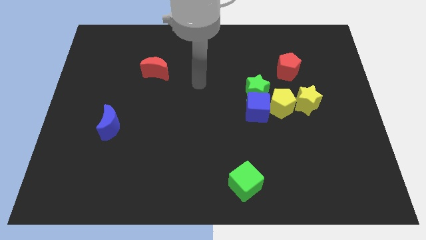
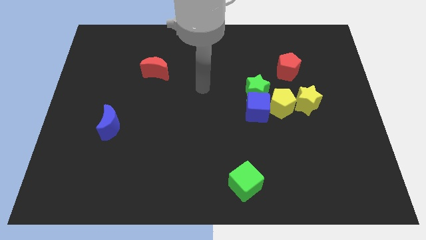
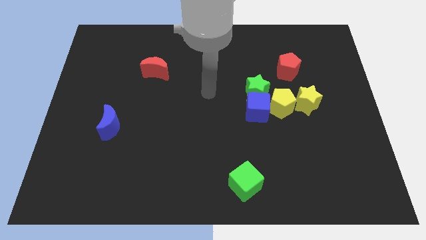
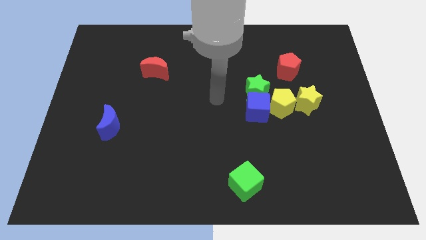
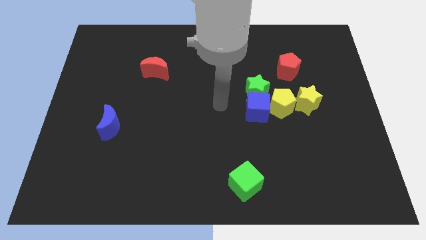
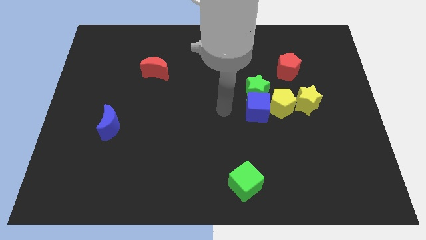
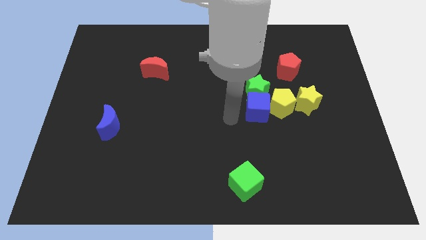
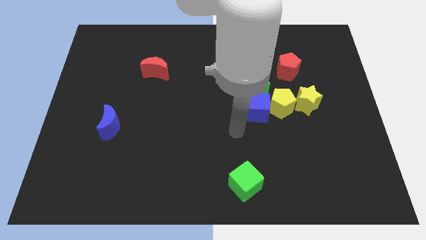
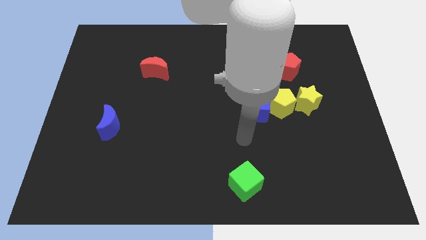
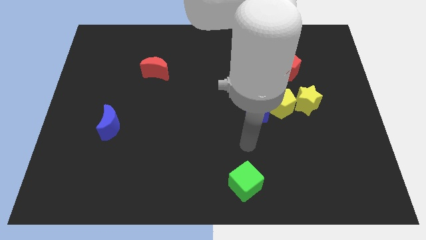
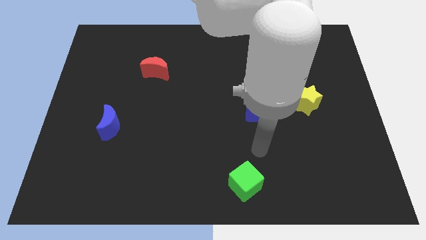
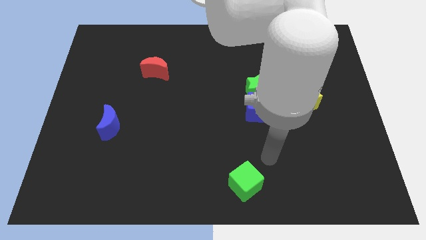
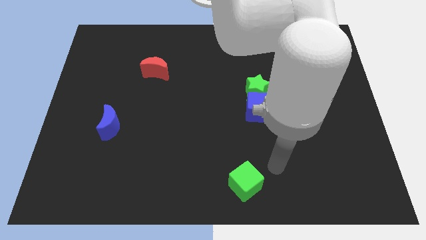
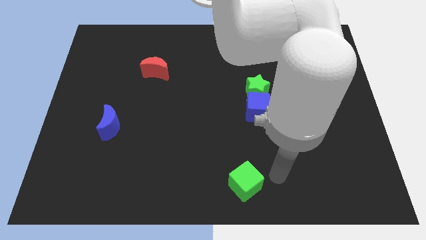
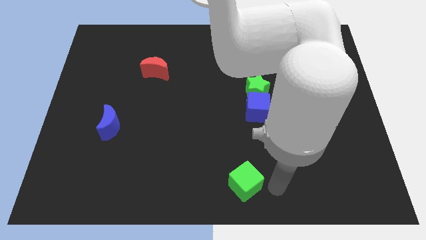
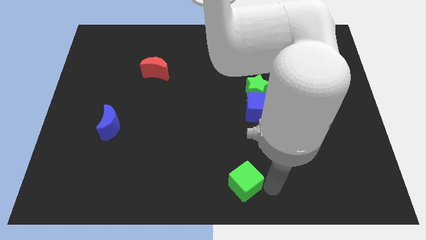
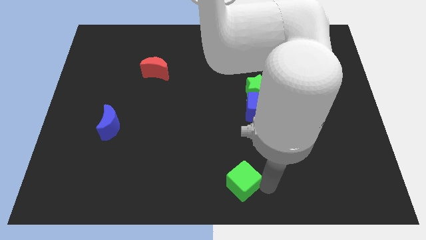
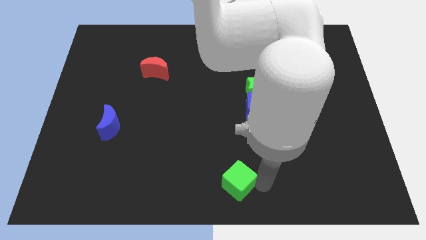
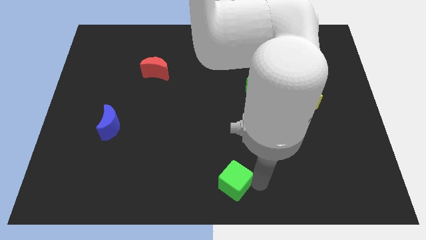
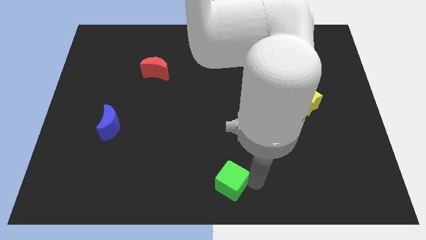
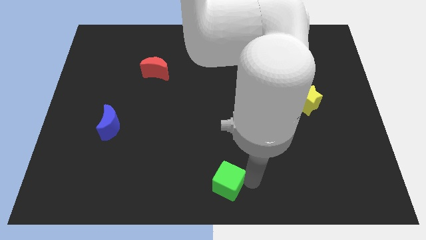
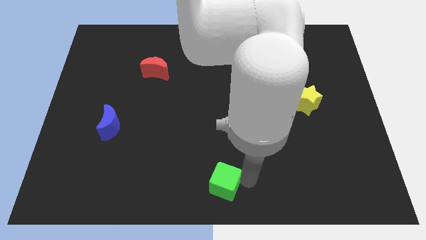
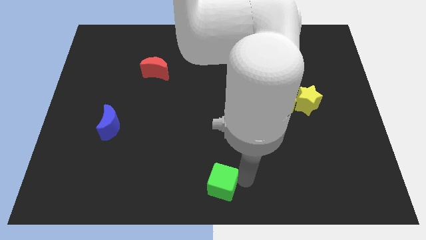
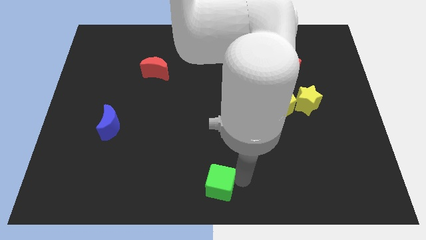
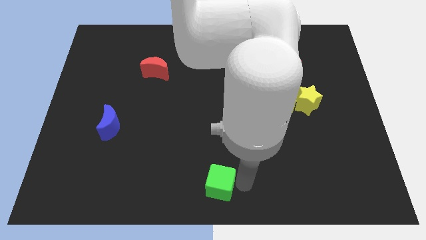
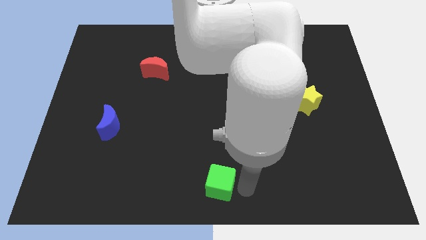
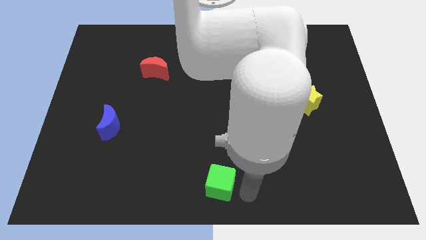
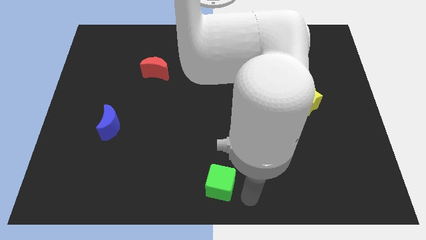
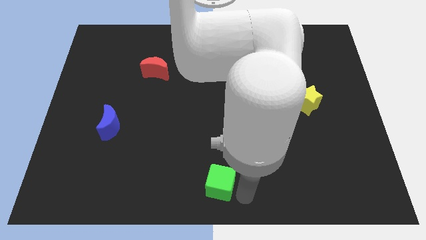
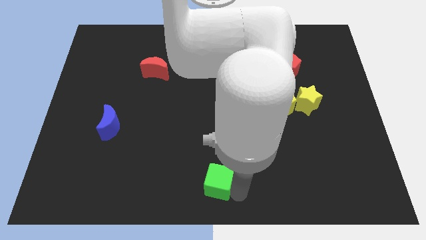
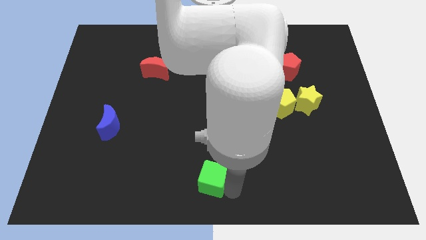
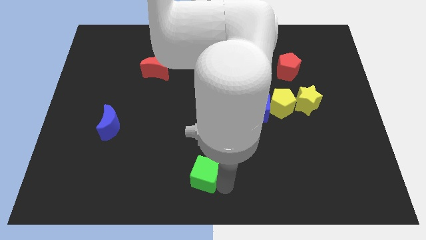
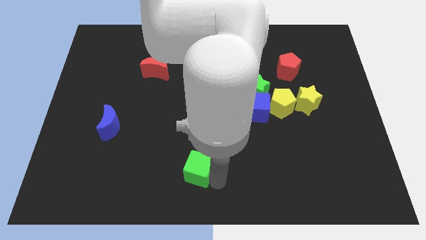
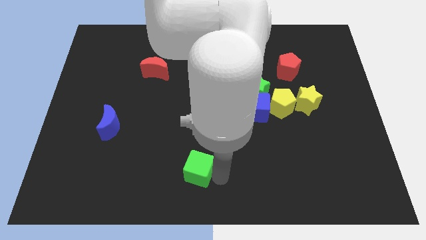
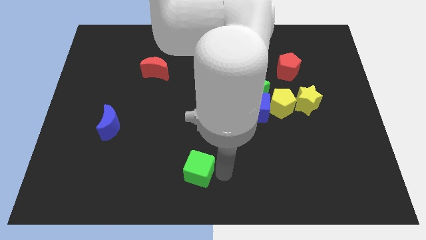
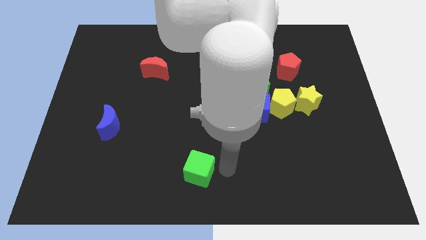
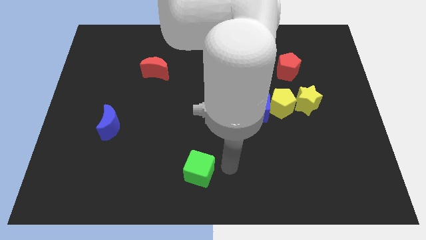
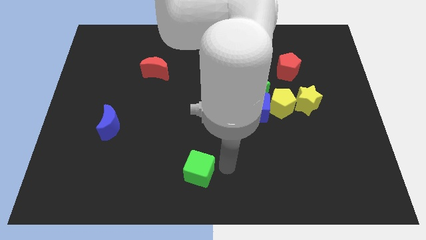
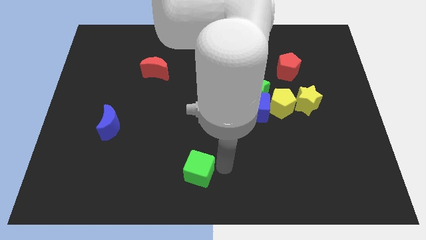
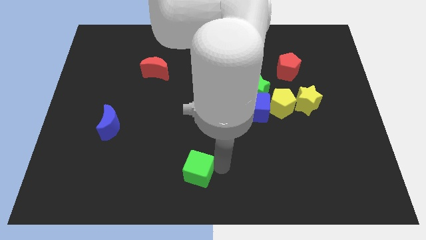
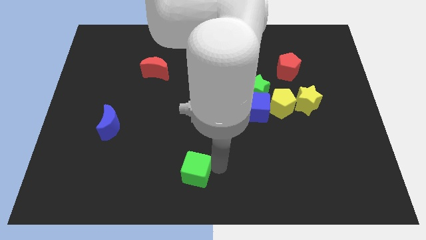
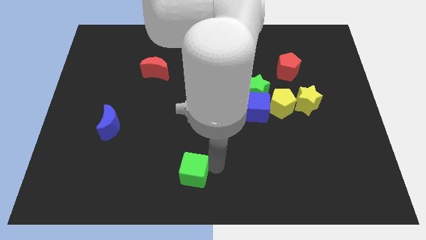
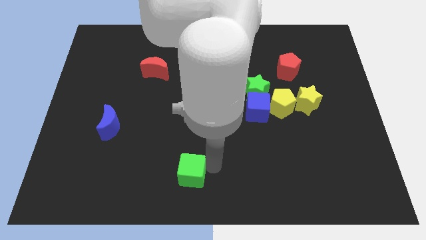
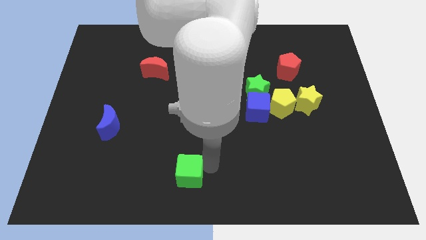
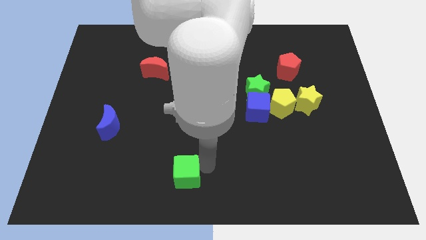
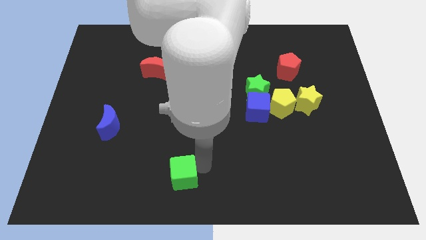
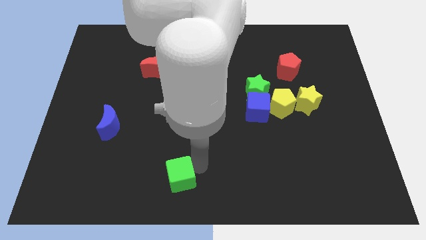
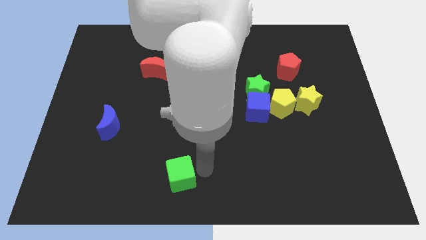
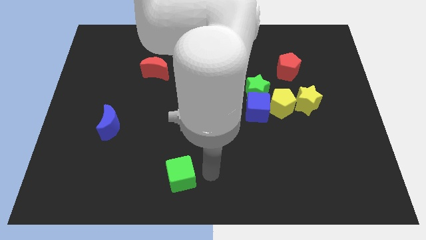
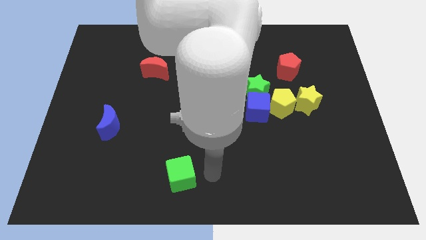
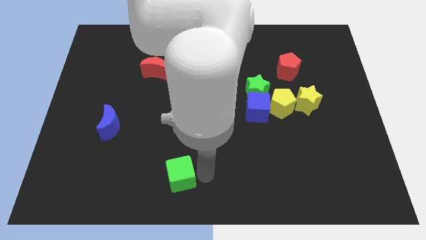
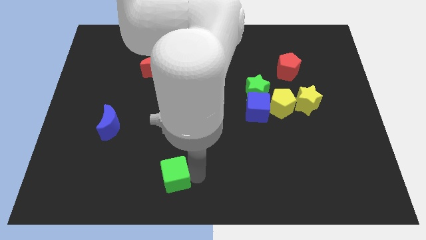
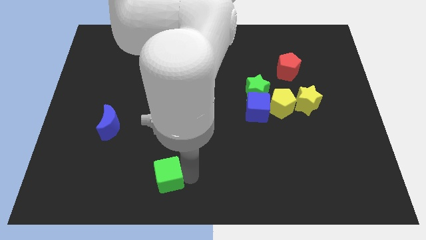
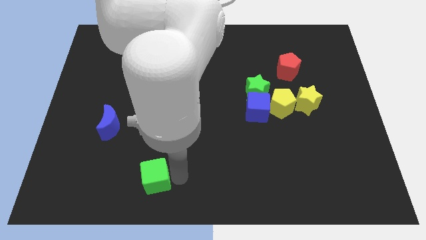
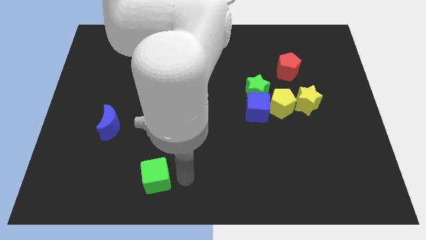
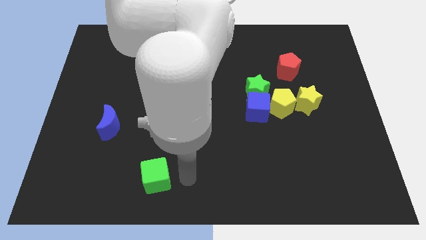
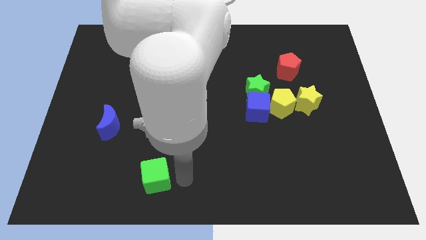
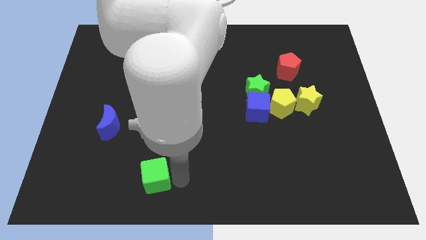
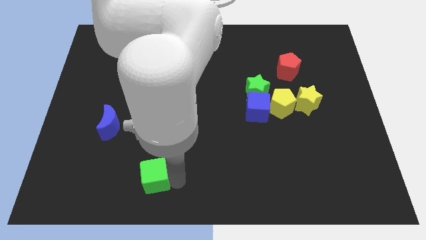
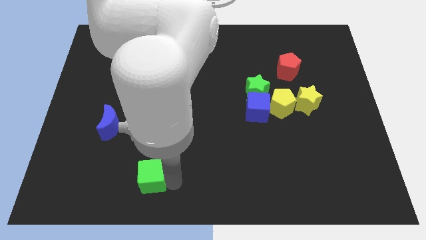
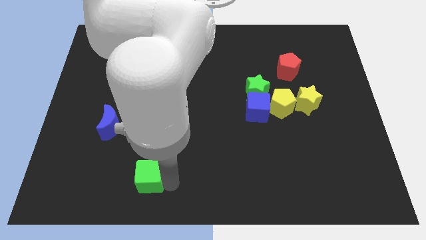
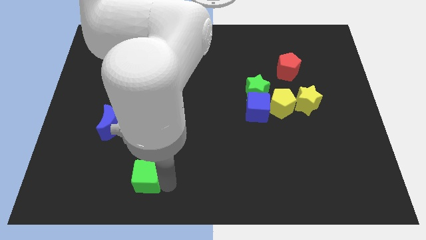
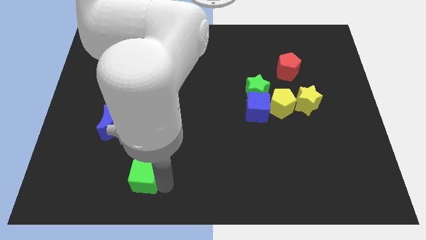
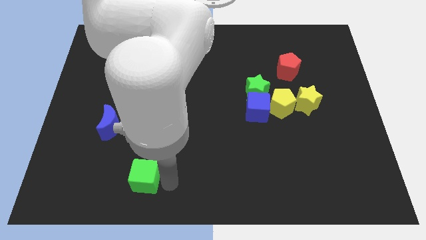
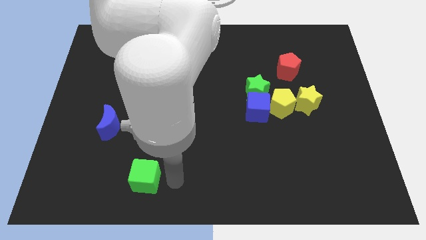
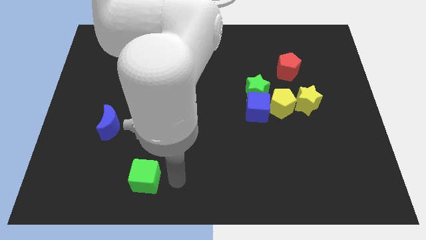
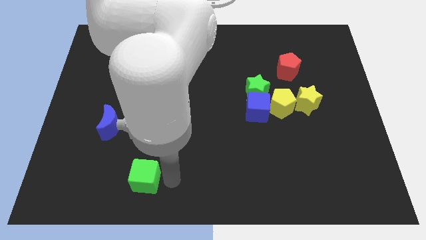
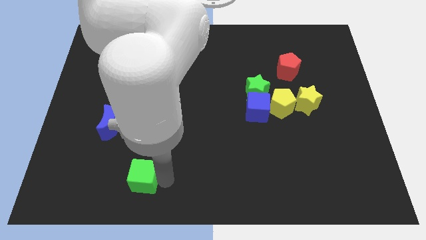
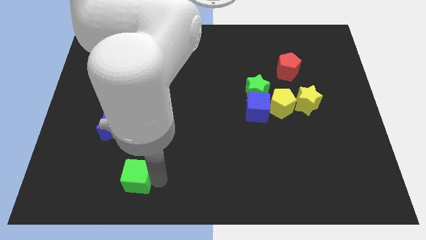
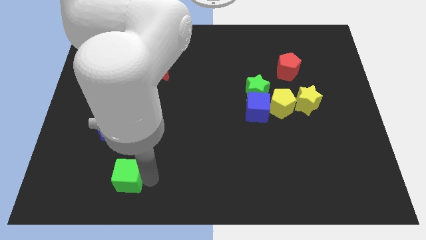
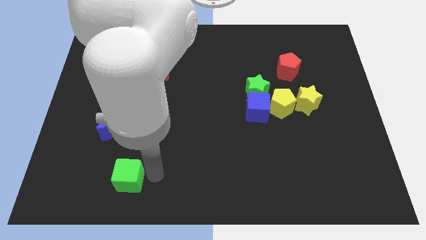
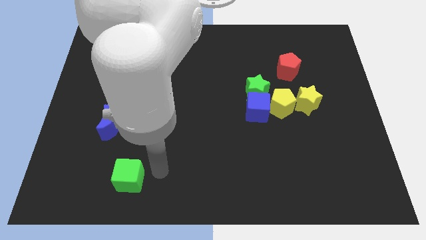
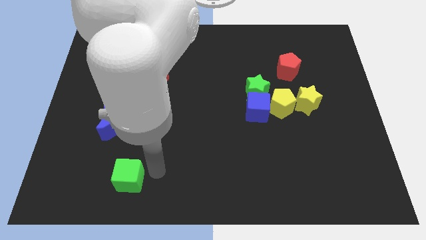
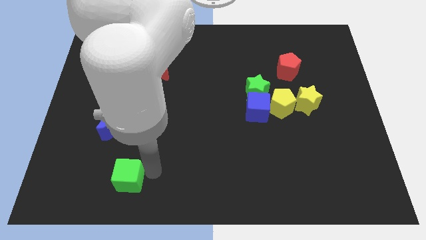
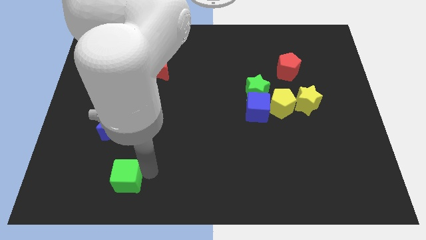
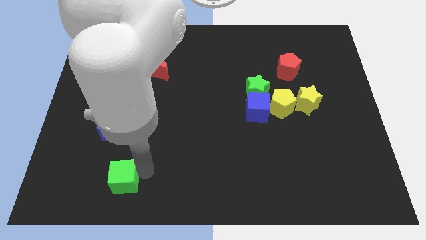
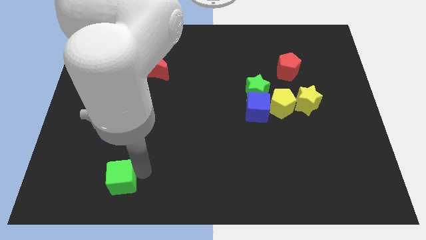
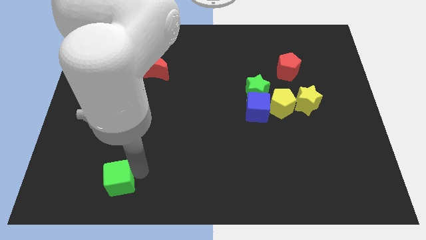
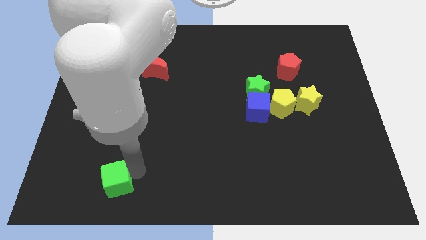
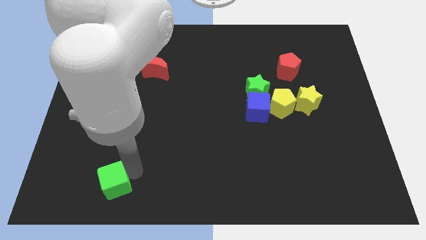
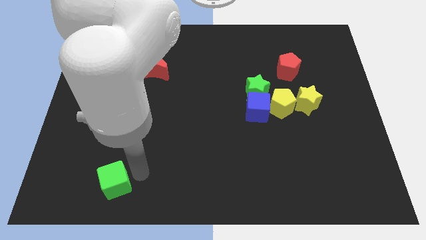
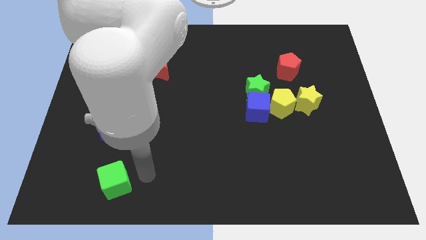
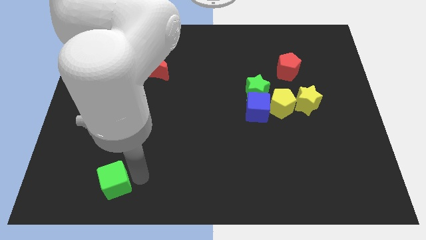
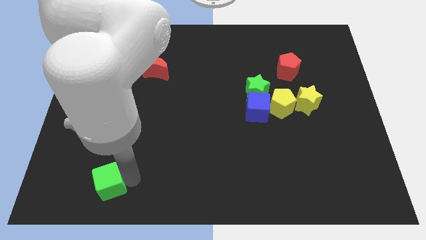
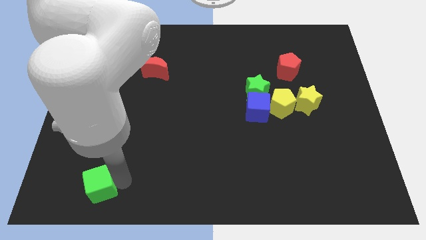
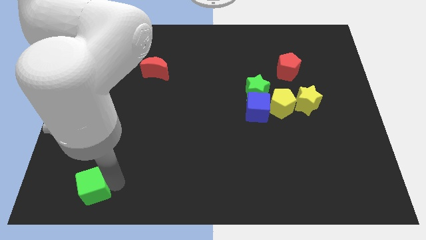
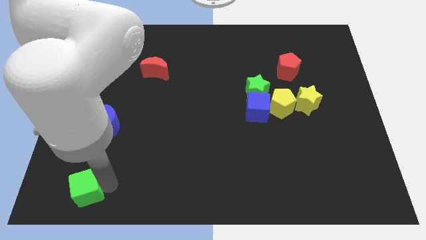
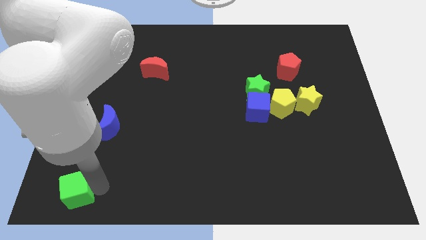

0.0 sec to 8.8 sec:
put the green cube to the lower left corner
